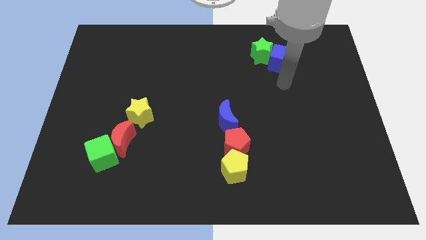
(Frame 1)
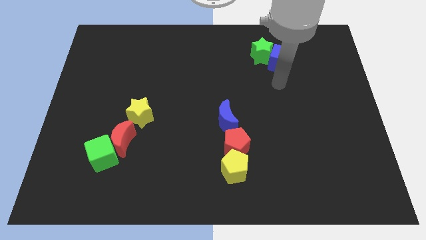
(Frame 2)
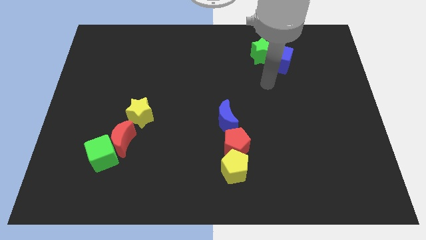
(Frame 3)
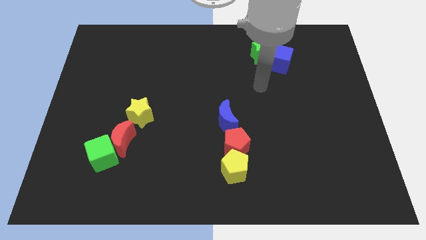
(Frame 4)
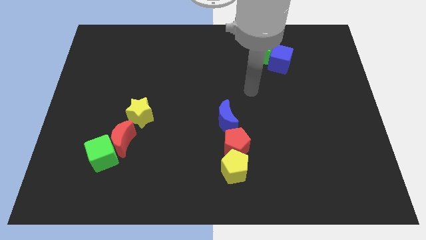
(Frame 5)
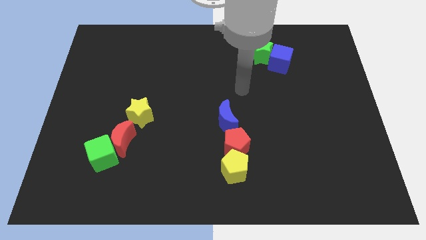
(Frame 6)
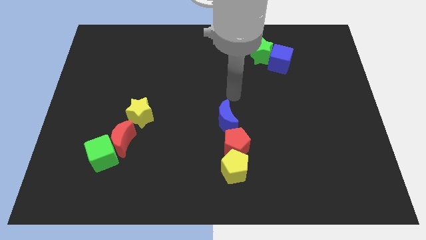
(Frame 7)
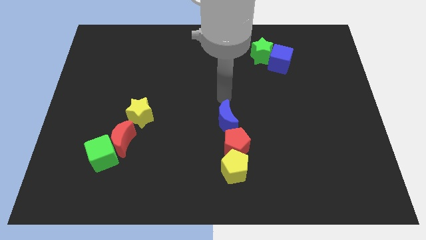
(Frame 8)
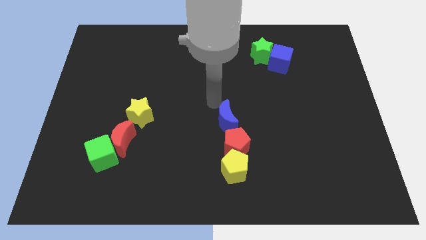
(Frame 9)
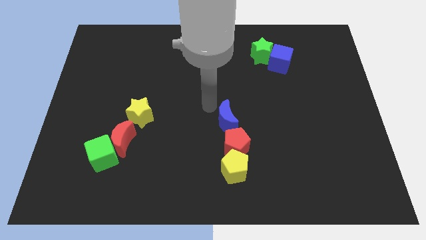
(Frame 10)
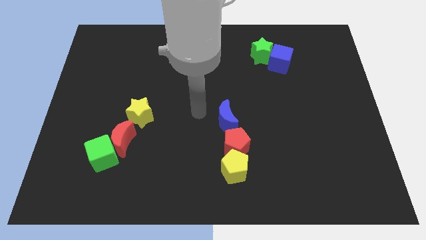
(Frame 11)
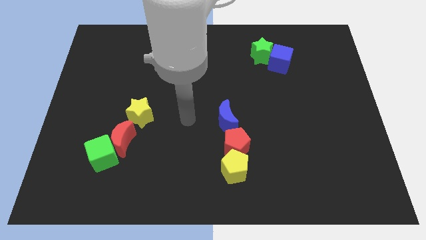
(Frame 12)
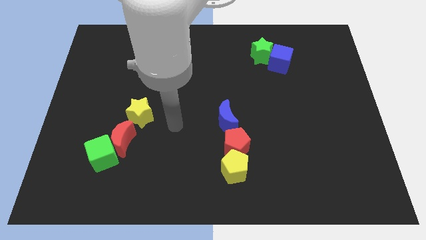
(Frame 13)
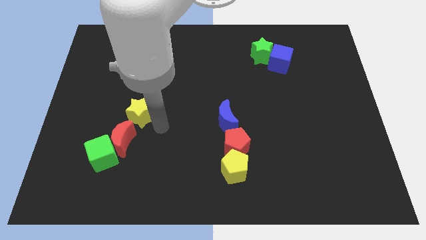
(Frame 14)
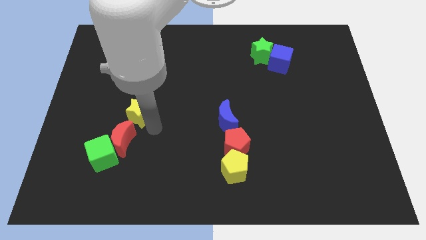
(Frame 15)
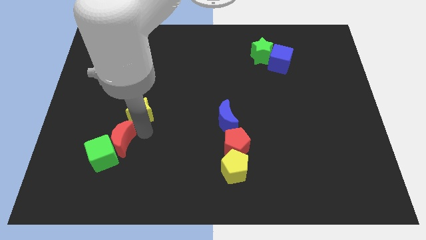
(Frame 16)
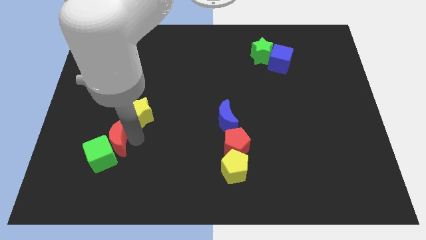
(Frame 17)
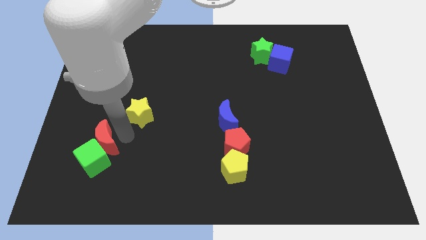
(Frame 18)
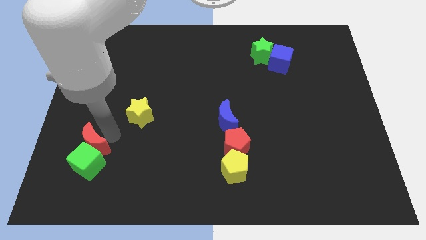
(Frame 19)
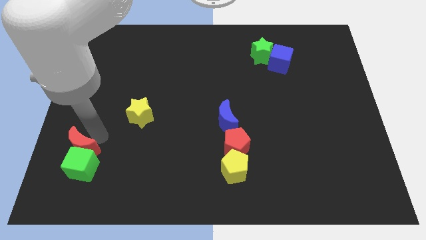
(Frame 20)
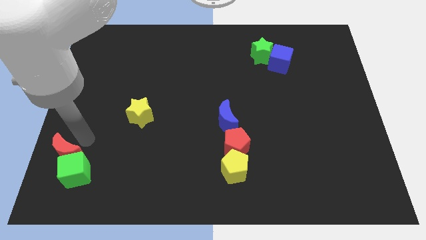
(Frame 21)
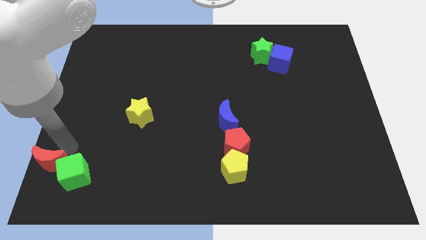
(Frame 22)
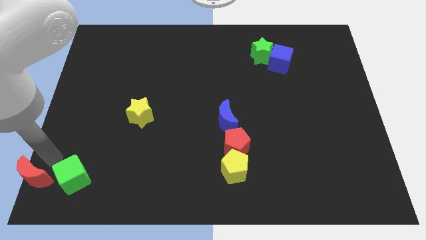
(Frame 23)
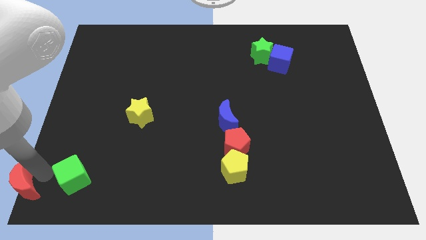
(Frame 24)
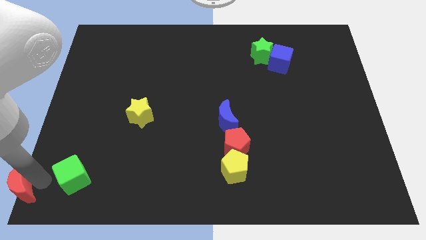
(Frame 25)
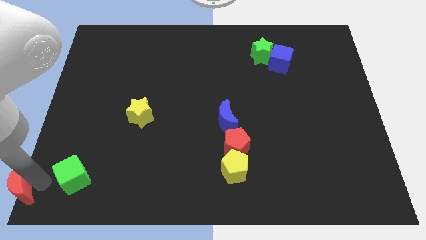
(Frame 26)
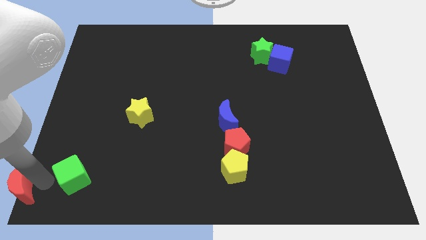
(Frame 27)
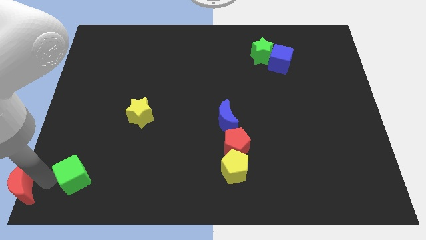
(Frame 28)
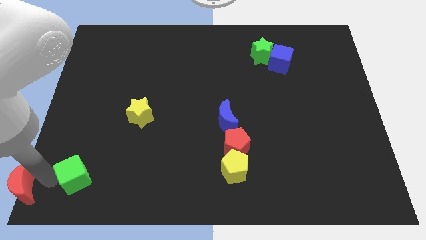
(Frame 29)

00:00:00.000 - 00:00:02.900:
pull the green cube apart from the red moon

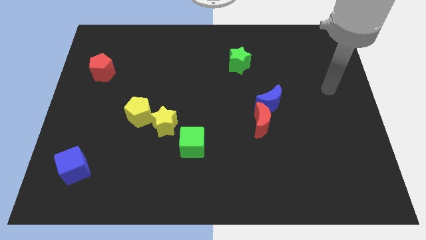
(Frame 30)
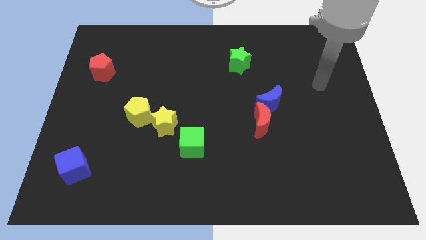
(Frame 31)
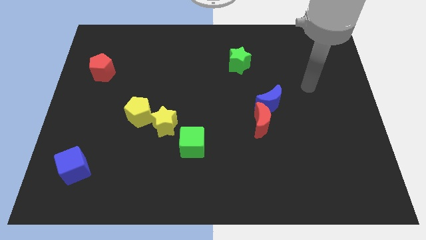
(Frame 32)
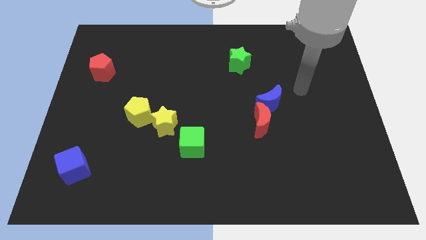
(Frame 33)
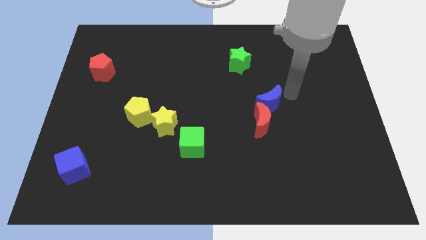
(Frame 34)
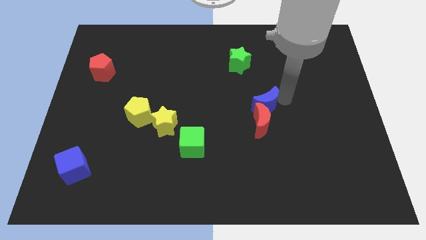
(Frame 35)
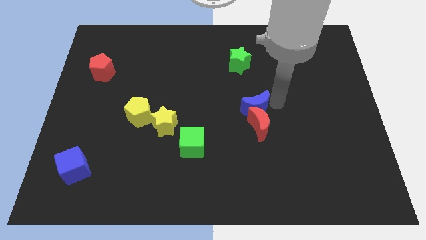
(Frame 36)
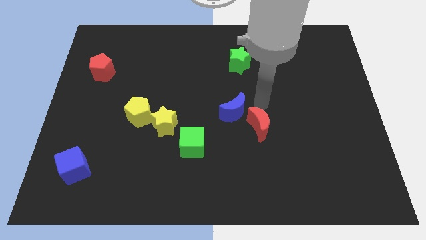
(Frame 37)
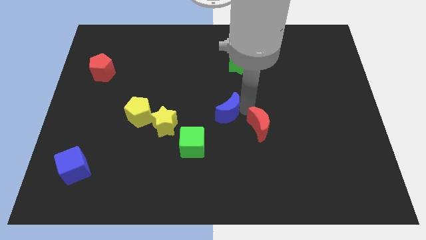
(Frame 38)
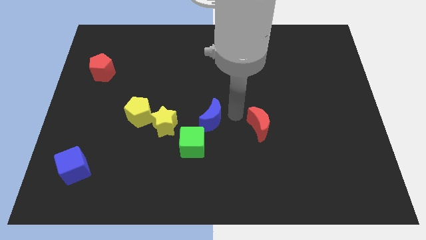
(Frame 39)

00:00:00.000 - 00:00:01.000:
pull the red moon apart from the blue moon

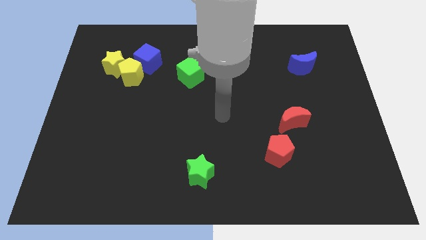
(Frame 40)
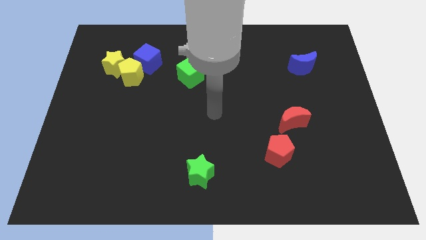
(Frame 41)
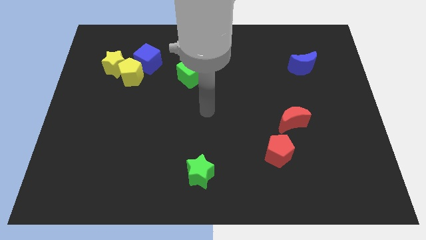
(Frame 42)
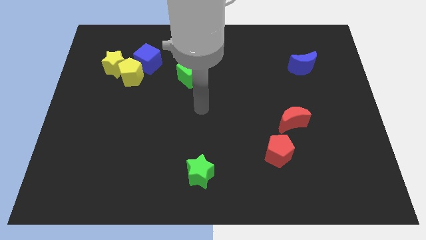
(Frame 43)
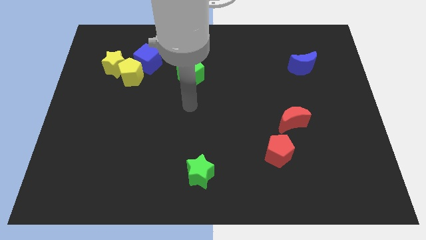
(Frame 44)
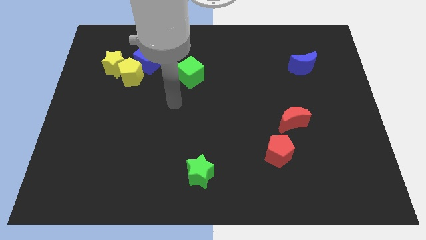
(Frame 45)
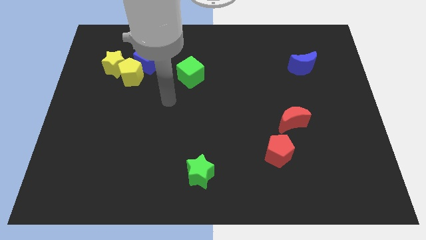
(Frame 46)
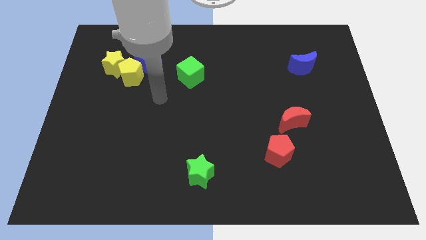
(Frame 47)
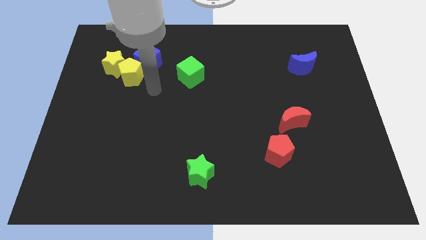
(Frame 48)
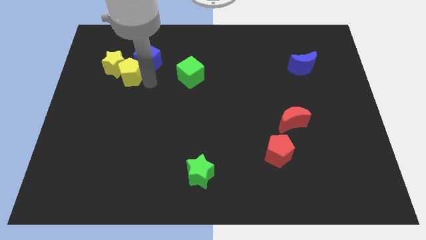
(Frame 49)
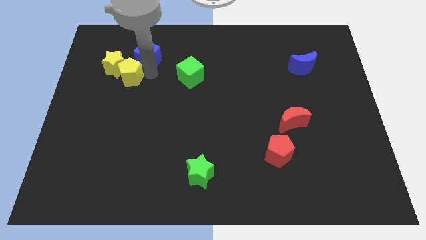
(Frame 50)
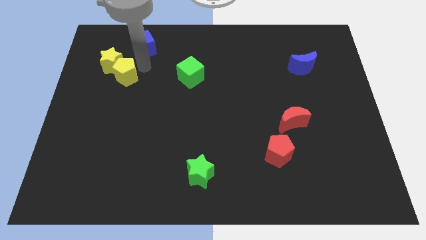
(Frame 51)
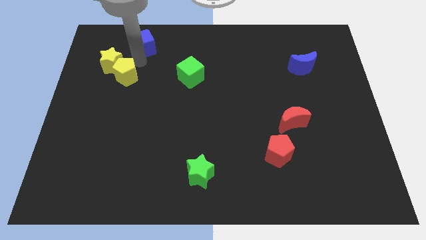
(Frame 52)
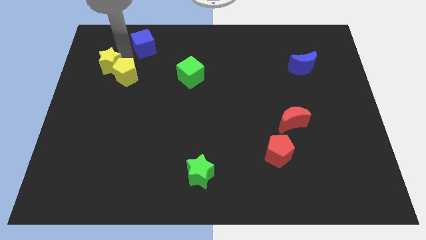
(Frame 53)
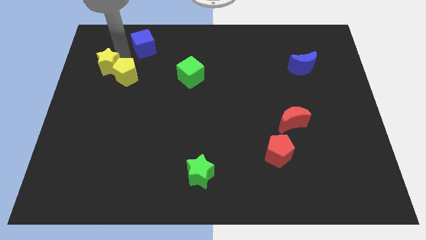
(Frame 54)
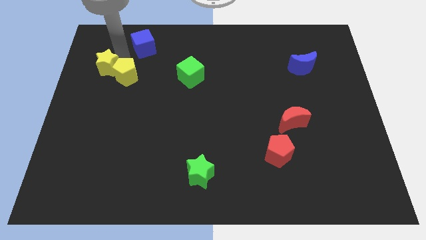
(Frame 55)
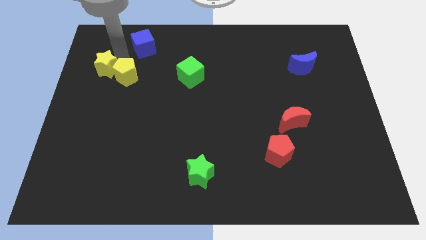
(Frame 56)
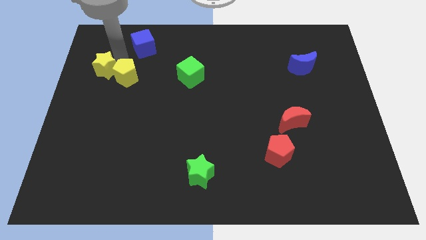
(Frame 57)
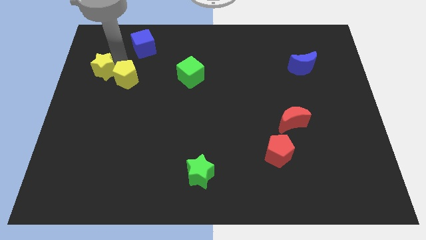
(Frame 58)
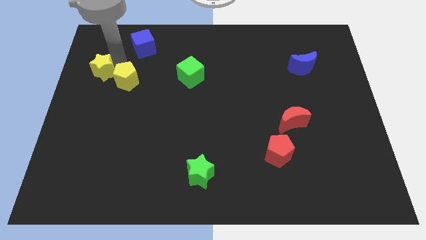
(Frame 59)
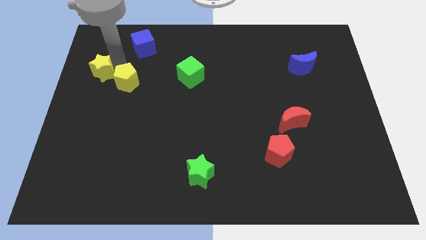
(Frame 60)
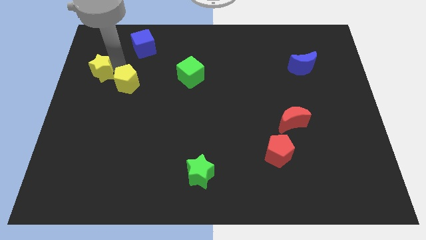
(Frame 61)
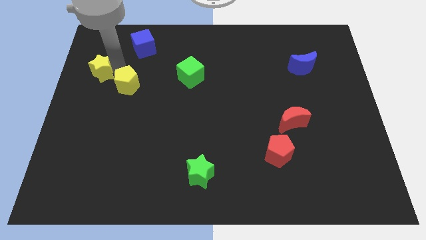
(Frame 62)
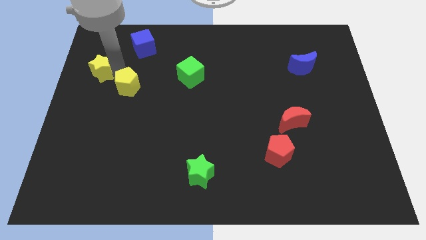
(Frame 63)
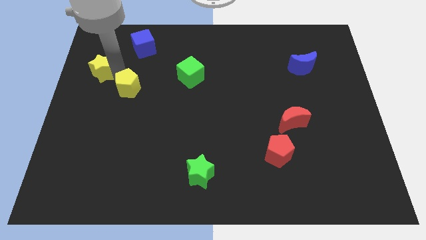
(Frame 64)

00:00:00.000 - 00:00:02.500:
move the yellow pentagon away from the yellow star and blue cube

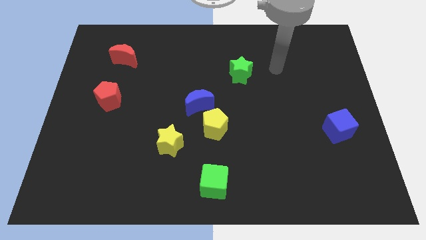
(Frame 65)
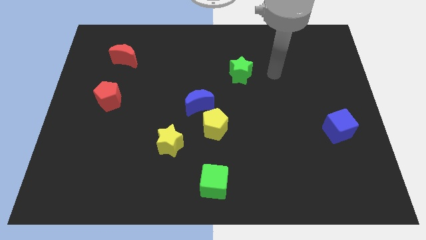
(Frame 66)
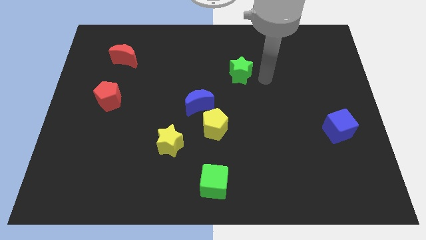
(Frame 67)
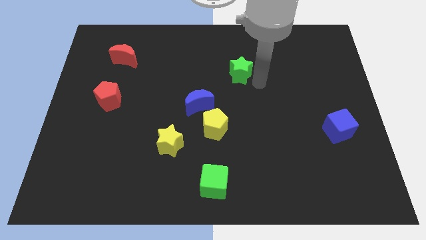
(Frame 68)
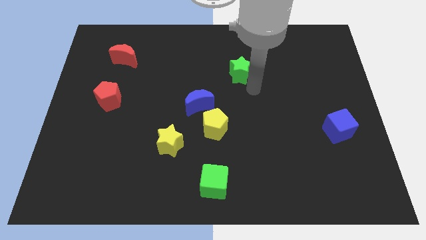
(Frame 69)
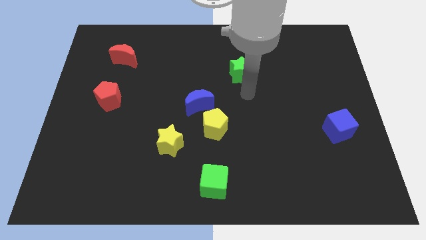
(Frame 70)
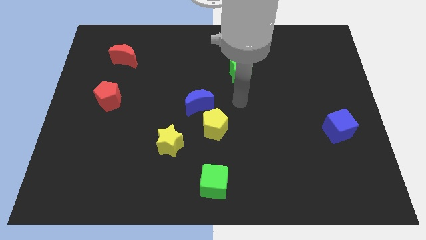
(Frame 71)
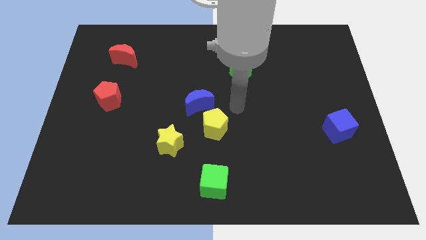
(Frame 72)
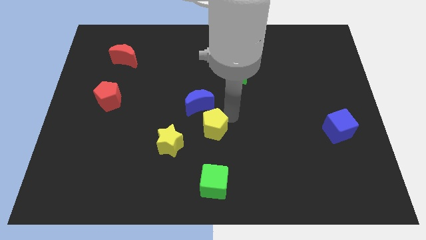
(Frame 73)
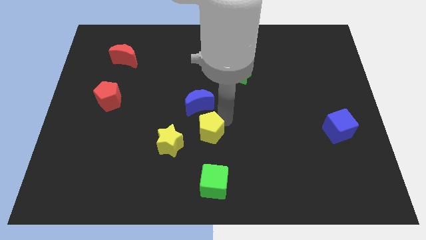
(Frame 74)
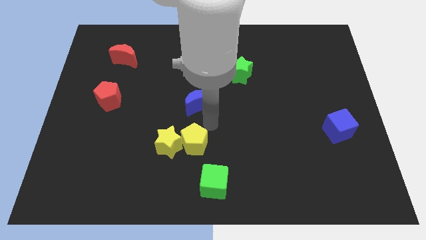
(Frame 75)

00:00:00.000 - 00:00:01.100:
separate the blue moon from the yellow pentagon

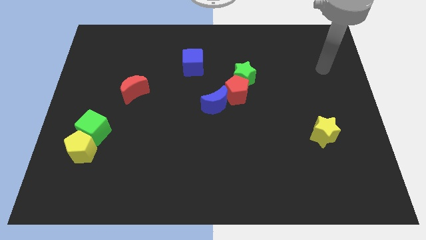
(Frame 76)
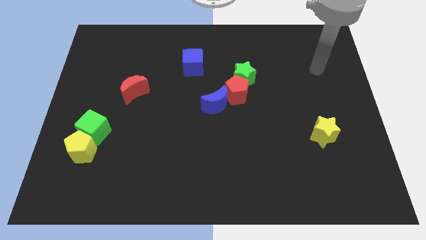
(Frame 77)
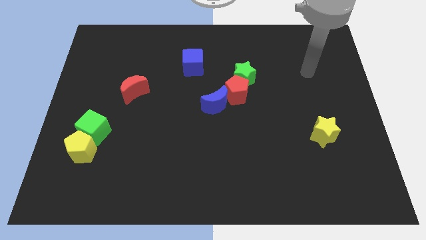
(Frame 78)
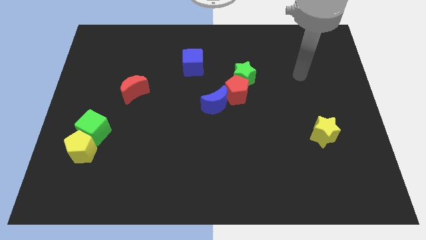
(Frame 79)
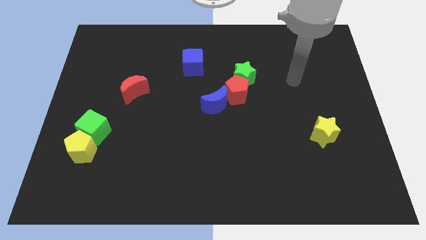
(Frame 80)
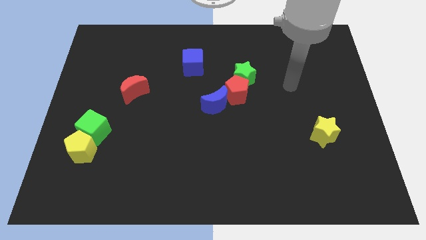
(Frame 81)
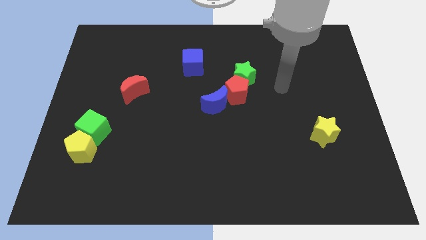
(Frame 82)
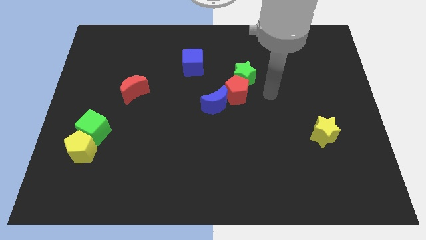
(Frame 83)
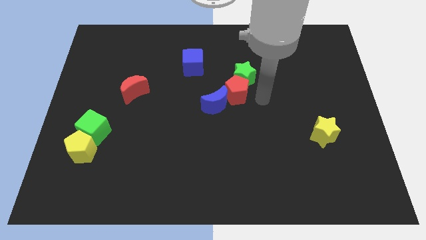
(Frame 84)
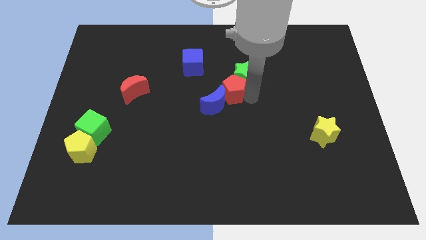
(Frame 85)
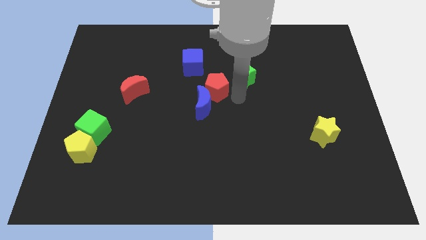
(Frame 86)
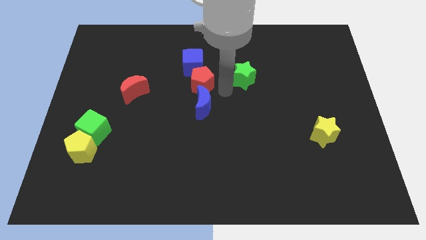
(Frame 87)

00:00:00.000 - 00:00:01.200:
pull the green star apart from the red pentagon

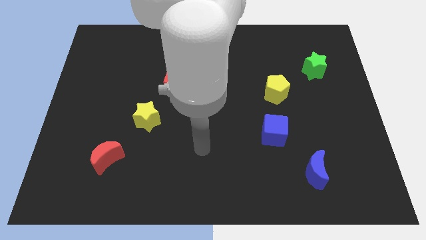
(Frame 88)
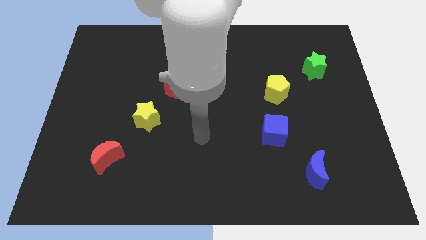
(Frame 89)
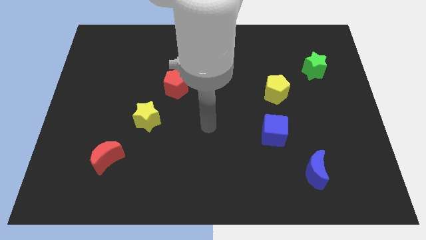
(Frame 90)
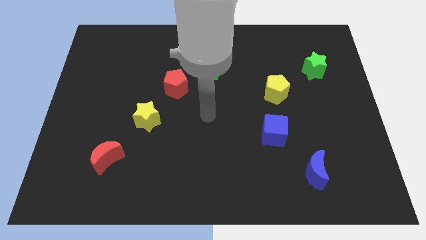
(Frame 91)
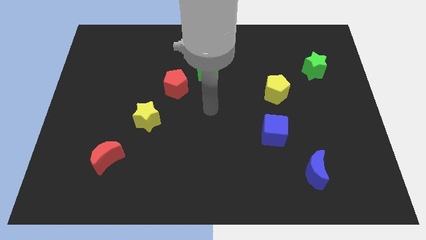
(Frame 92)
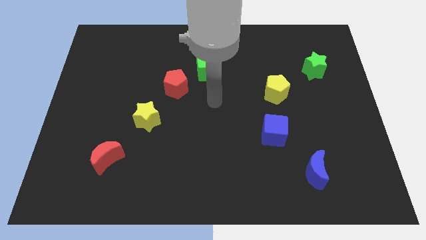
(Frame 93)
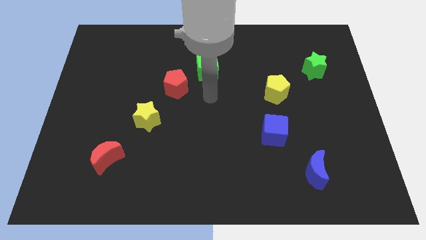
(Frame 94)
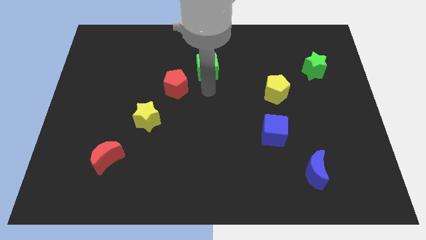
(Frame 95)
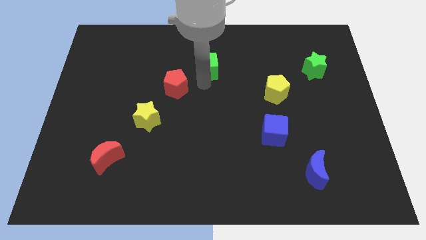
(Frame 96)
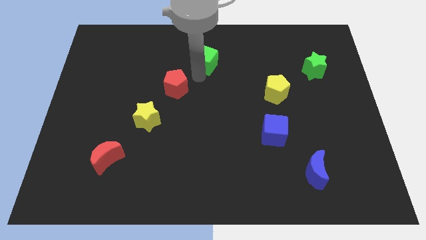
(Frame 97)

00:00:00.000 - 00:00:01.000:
pull the red pentagon apart from the green cube
